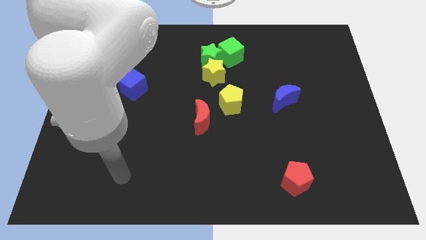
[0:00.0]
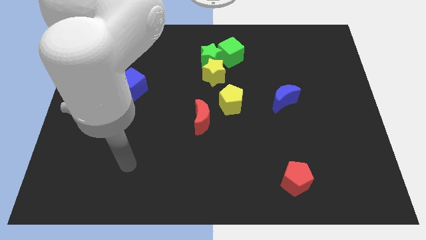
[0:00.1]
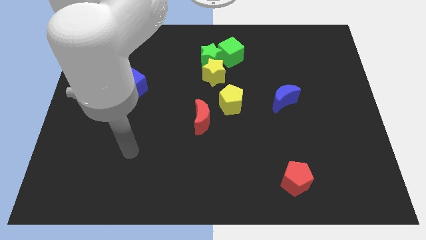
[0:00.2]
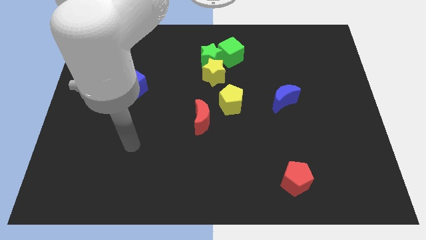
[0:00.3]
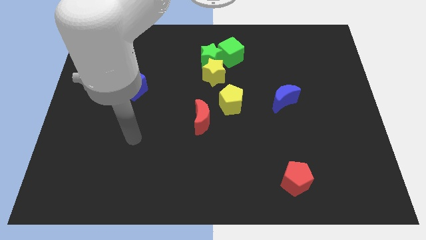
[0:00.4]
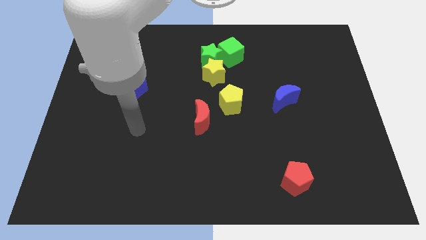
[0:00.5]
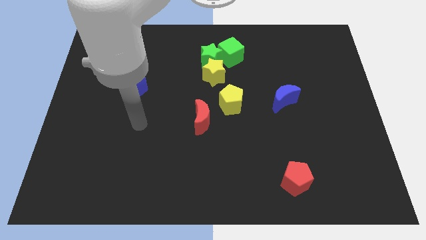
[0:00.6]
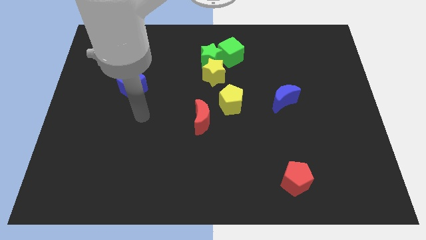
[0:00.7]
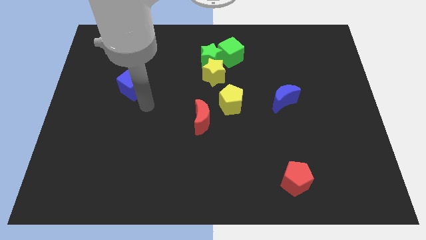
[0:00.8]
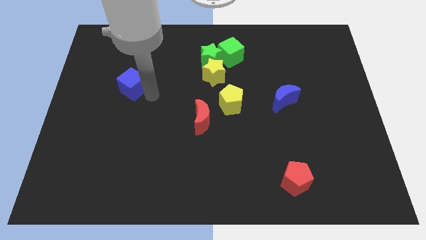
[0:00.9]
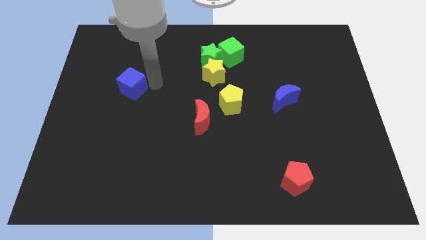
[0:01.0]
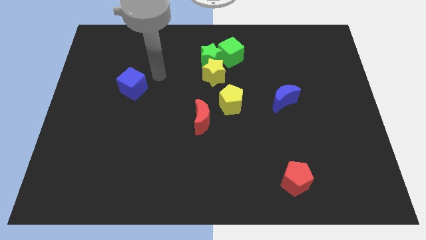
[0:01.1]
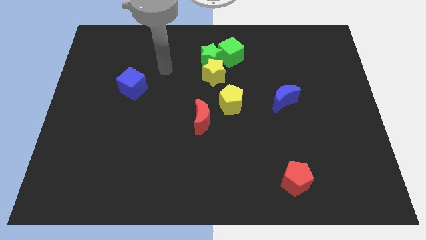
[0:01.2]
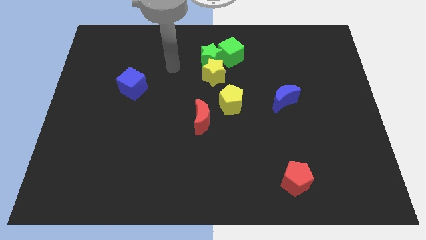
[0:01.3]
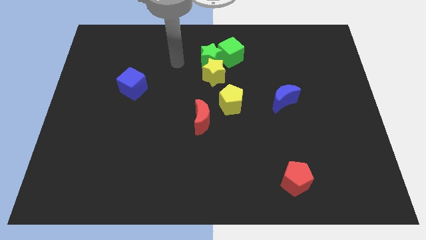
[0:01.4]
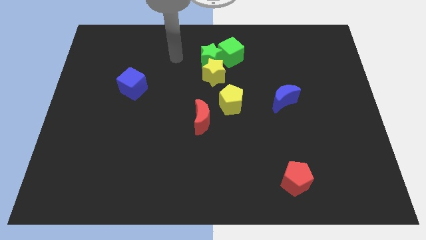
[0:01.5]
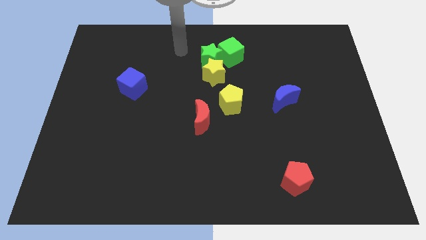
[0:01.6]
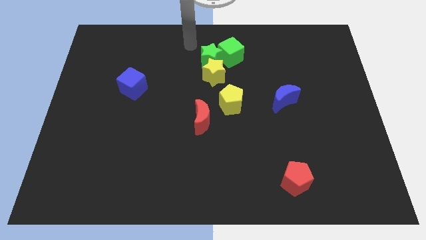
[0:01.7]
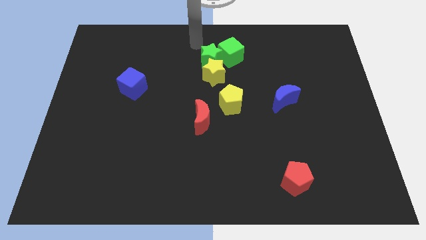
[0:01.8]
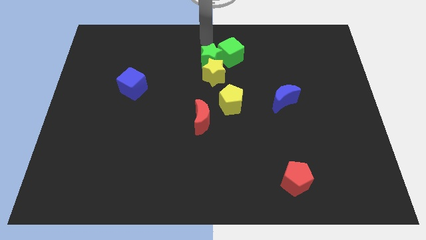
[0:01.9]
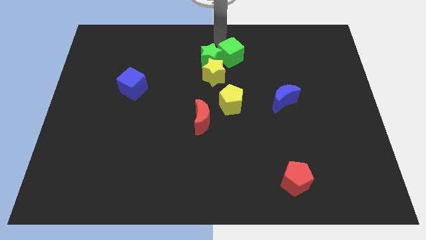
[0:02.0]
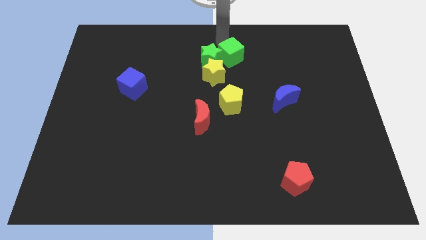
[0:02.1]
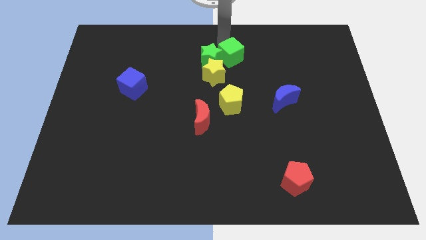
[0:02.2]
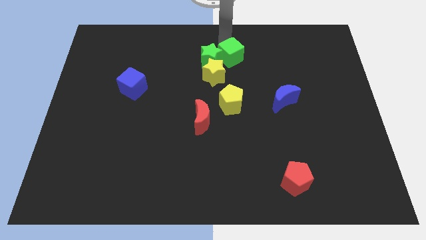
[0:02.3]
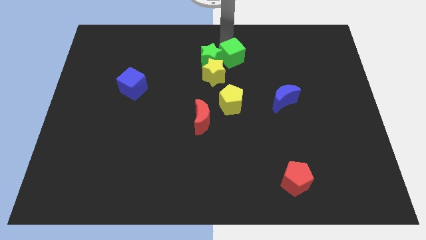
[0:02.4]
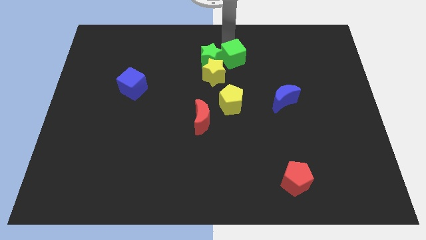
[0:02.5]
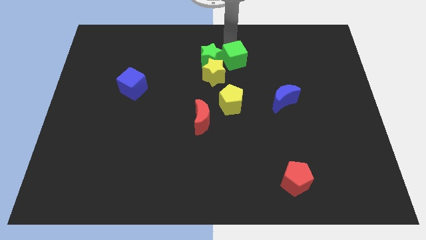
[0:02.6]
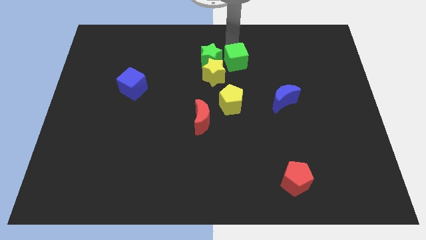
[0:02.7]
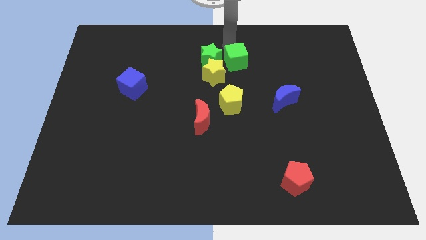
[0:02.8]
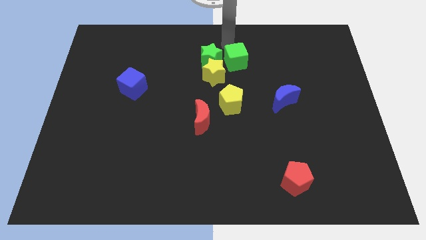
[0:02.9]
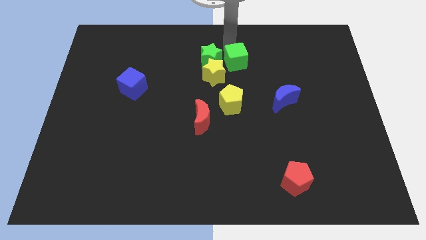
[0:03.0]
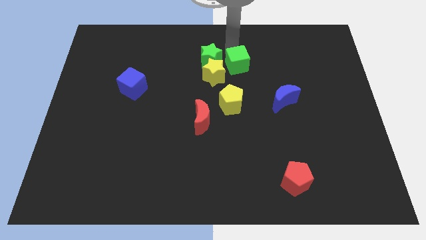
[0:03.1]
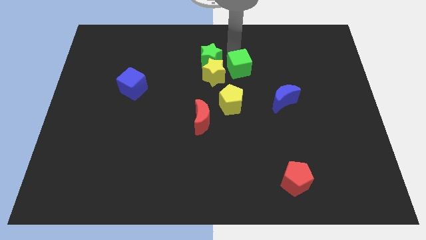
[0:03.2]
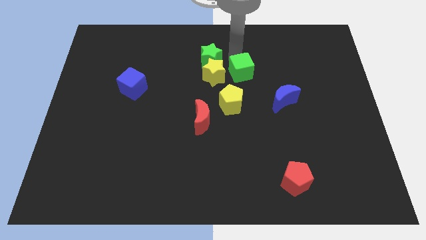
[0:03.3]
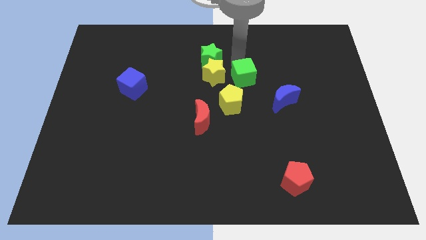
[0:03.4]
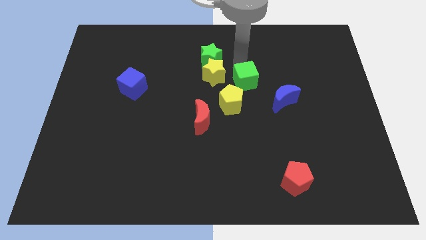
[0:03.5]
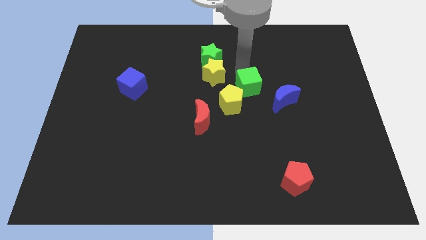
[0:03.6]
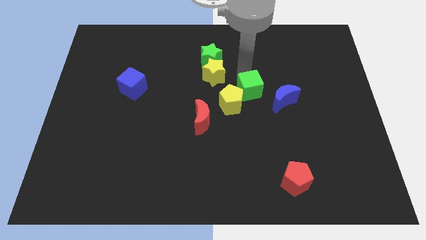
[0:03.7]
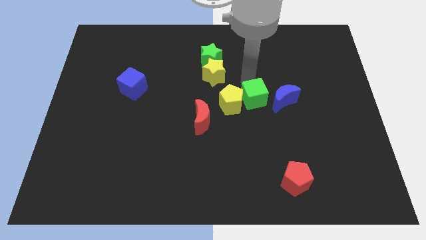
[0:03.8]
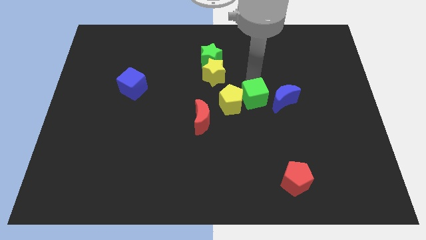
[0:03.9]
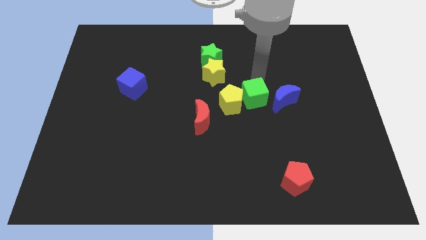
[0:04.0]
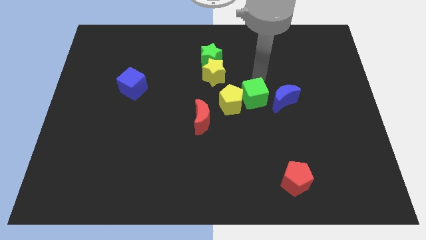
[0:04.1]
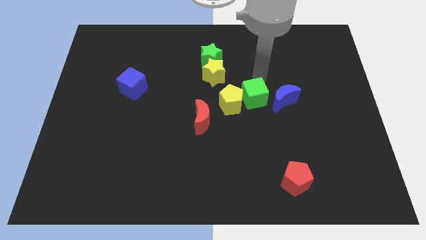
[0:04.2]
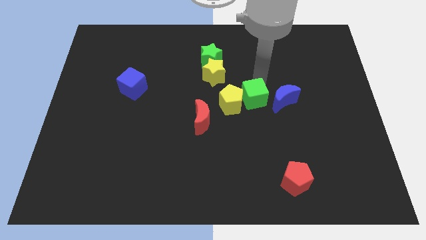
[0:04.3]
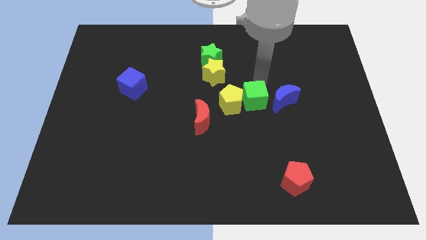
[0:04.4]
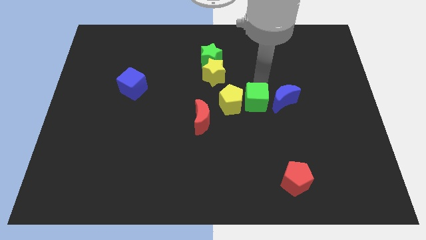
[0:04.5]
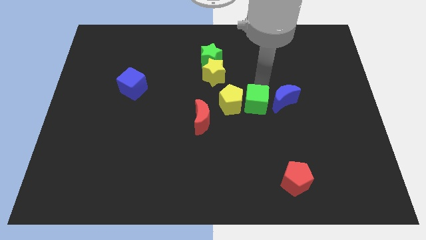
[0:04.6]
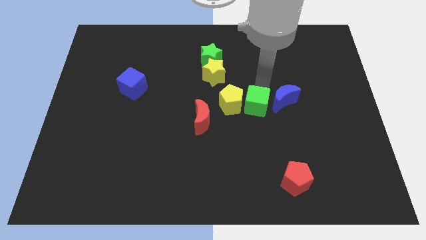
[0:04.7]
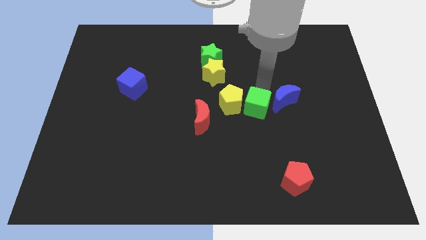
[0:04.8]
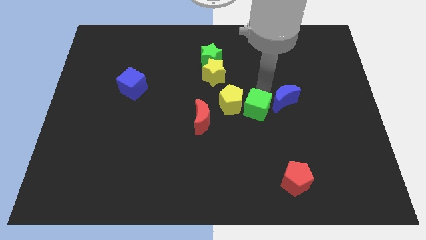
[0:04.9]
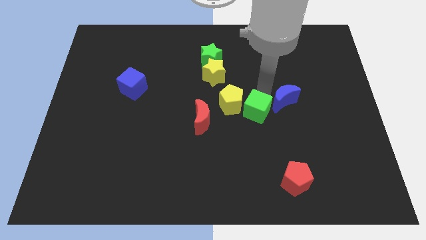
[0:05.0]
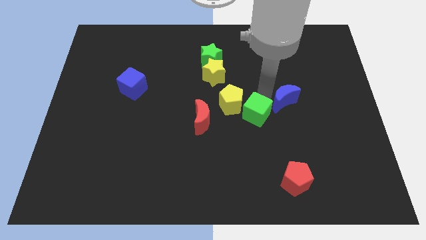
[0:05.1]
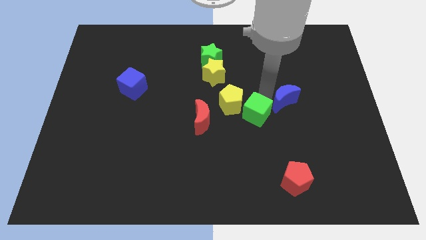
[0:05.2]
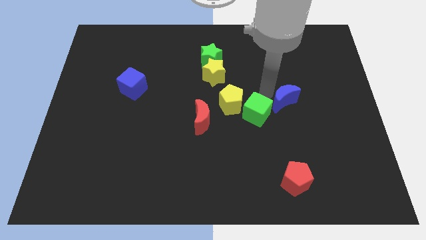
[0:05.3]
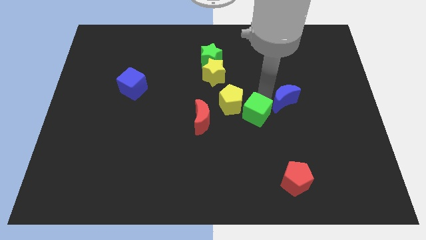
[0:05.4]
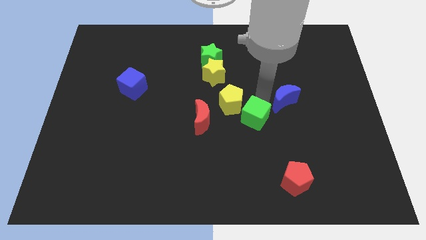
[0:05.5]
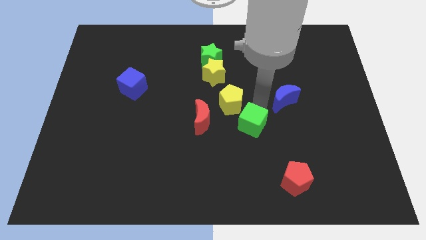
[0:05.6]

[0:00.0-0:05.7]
slide the green cube downwards

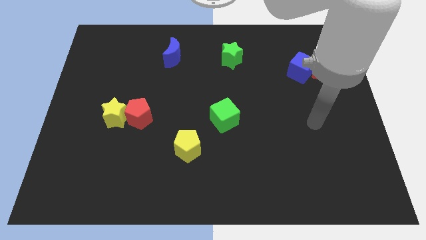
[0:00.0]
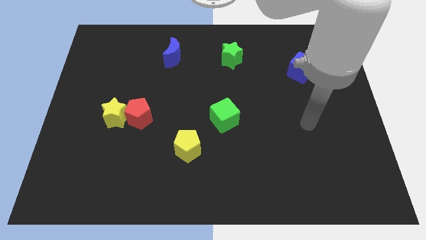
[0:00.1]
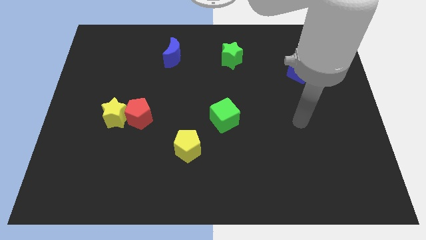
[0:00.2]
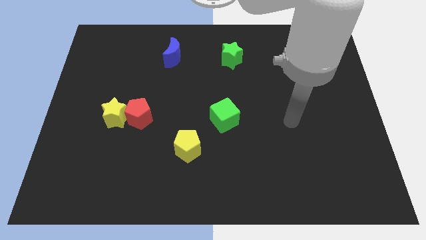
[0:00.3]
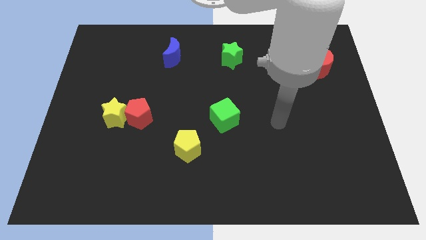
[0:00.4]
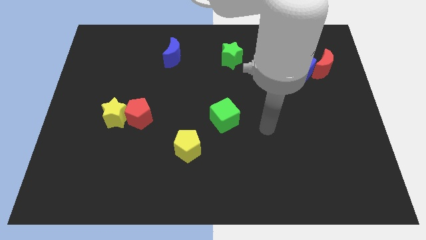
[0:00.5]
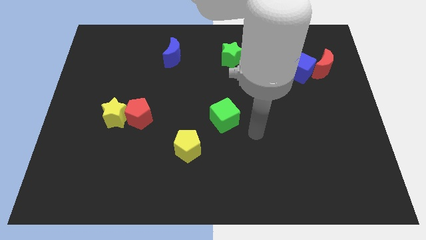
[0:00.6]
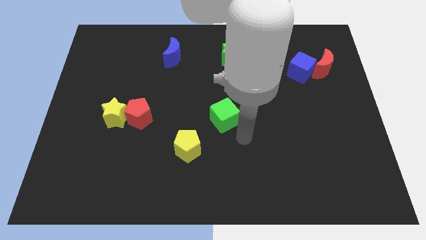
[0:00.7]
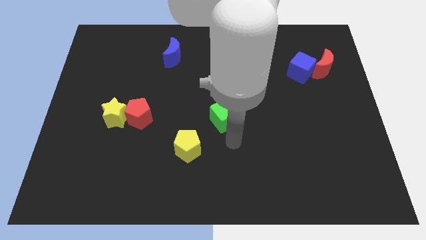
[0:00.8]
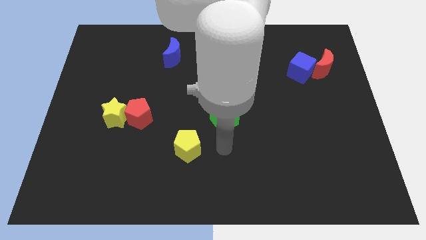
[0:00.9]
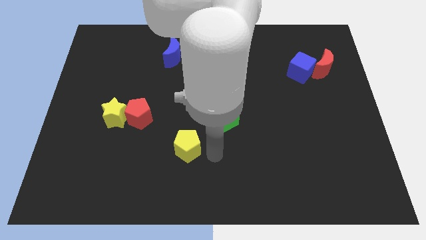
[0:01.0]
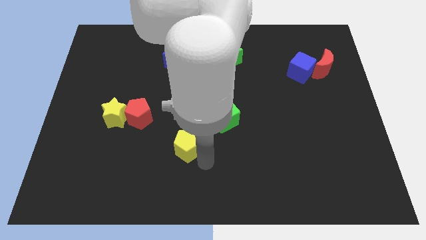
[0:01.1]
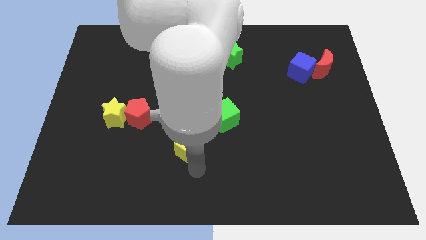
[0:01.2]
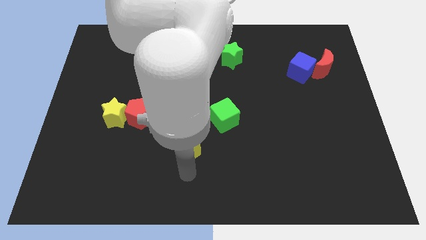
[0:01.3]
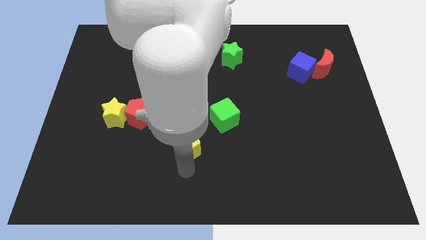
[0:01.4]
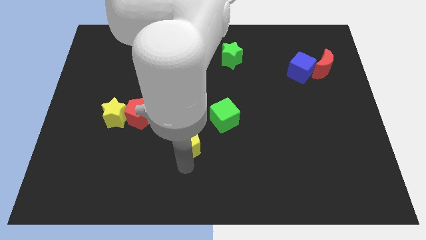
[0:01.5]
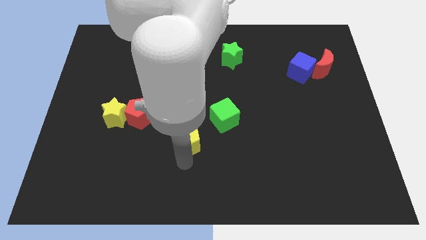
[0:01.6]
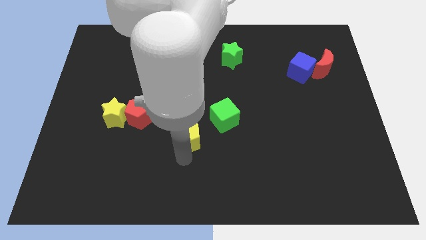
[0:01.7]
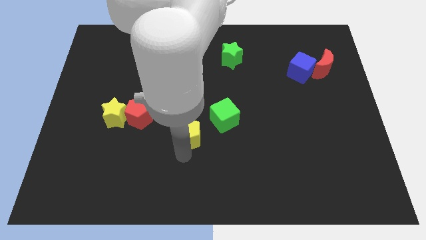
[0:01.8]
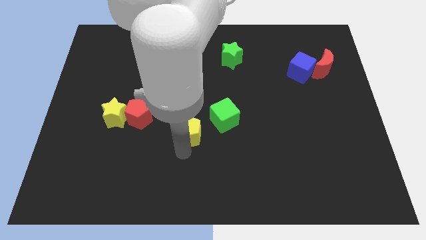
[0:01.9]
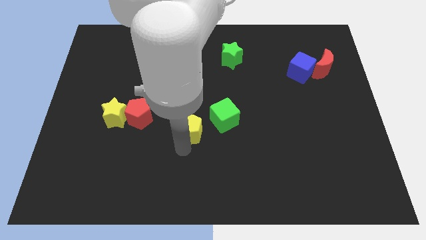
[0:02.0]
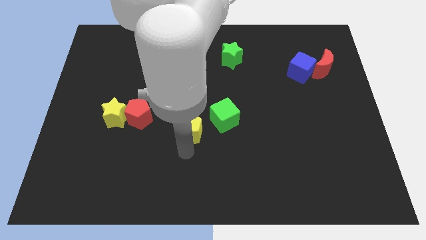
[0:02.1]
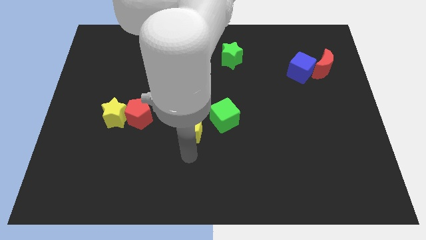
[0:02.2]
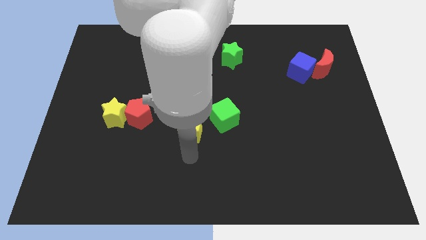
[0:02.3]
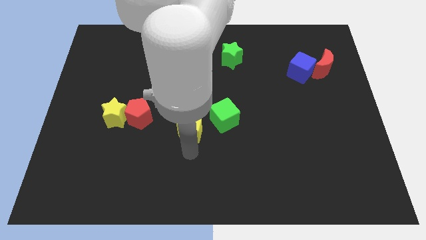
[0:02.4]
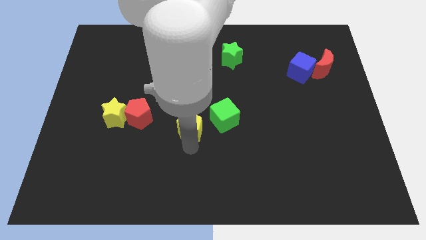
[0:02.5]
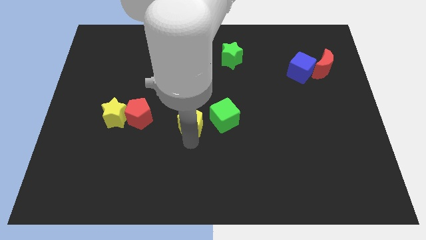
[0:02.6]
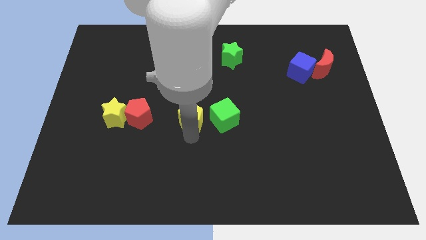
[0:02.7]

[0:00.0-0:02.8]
move the yellow pentagon a bit upwards
